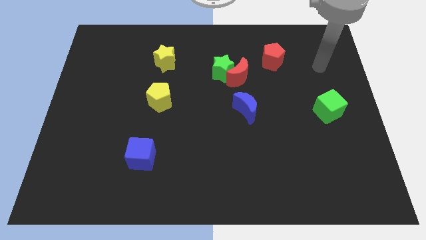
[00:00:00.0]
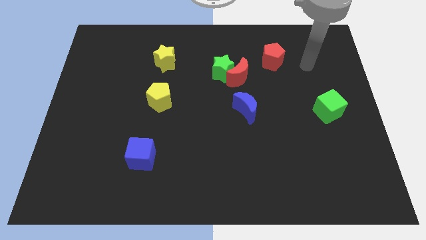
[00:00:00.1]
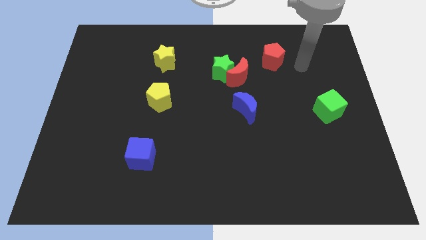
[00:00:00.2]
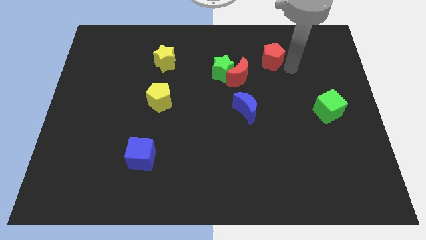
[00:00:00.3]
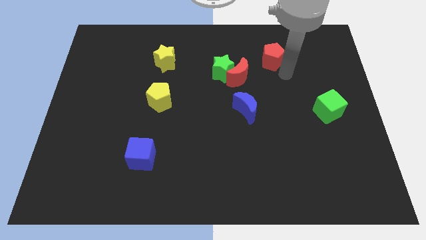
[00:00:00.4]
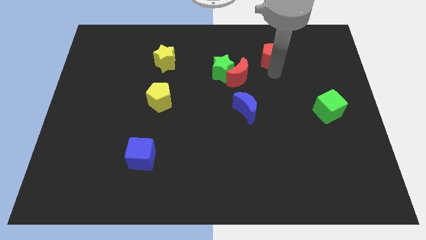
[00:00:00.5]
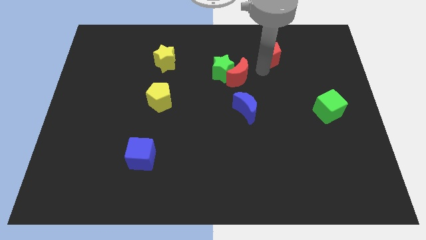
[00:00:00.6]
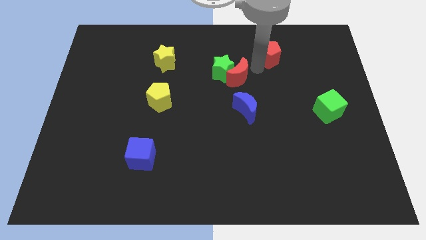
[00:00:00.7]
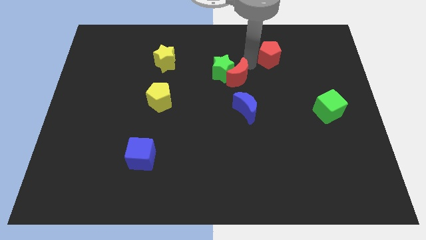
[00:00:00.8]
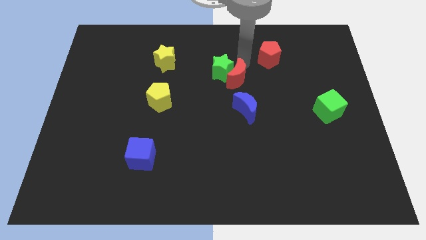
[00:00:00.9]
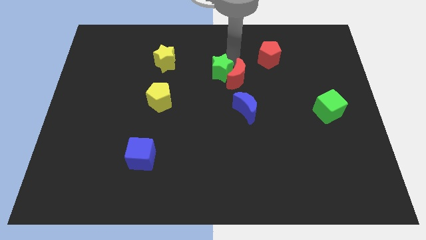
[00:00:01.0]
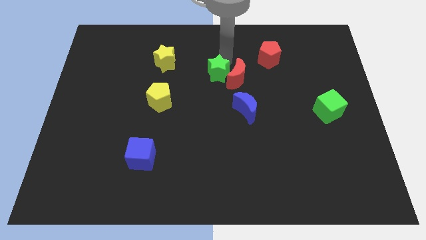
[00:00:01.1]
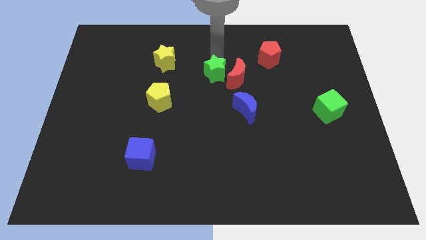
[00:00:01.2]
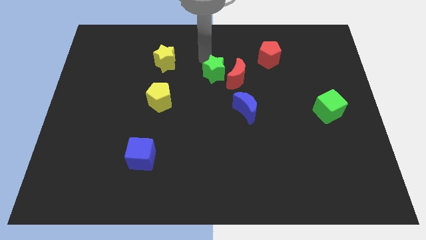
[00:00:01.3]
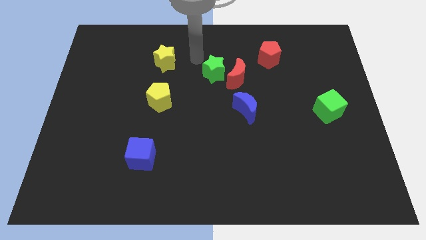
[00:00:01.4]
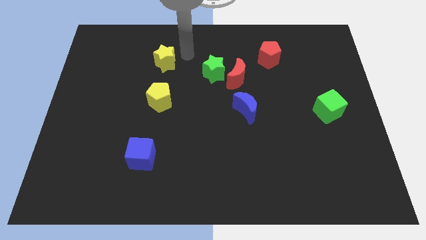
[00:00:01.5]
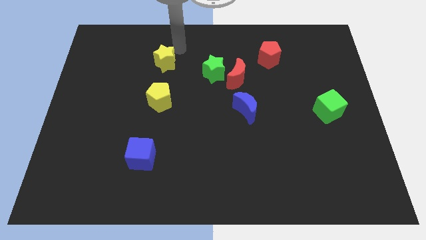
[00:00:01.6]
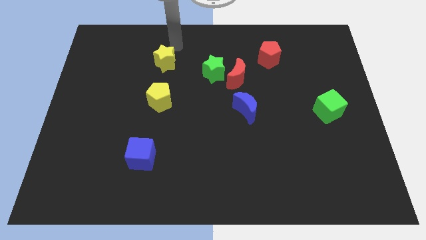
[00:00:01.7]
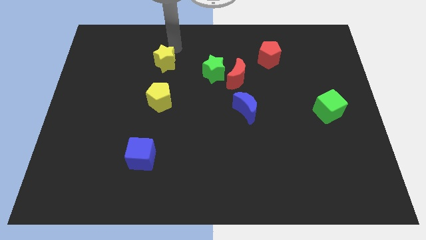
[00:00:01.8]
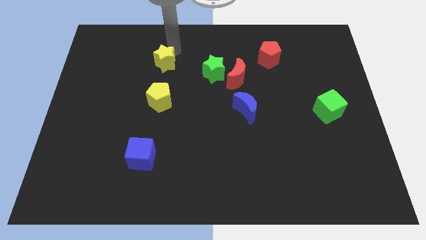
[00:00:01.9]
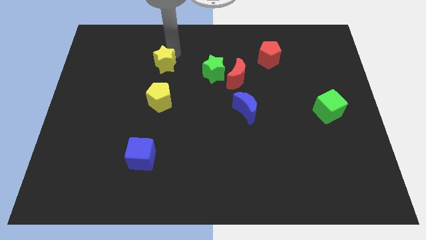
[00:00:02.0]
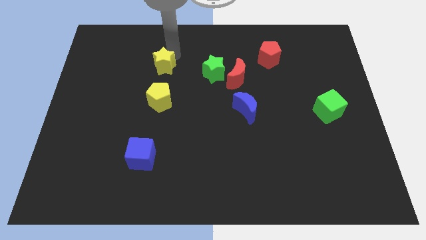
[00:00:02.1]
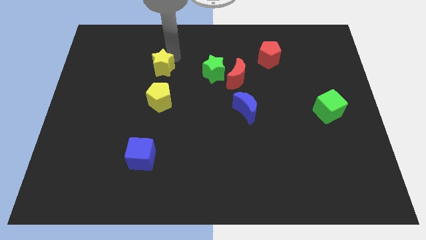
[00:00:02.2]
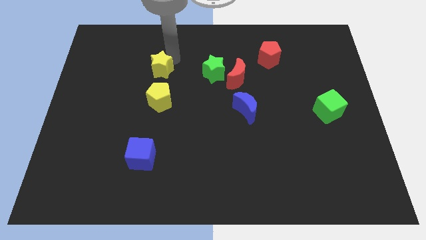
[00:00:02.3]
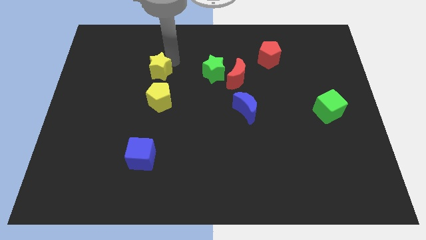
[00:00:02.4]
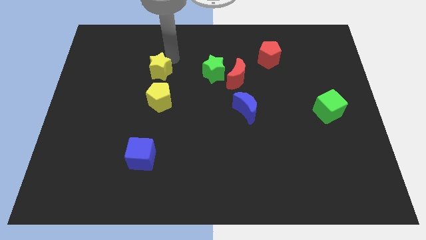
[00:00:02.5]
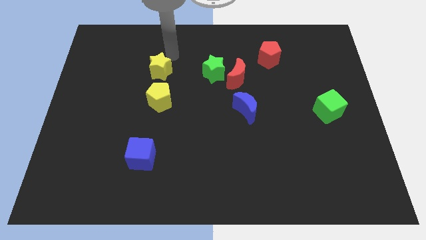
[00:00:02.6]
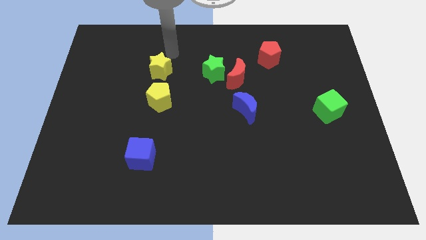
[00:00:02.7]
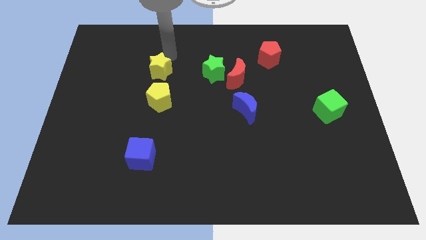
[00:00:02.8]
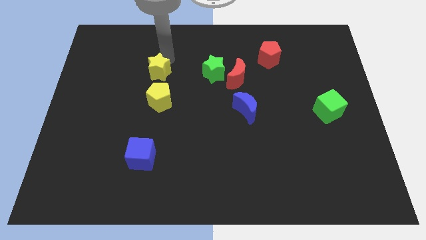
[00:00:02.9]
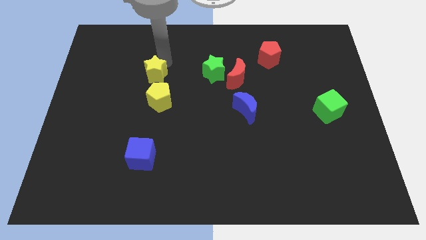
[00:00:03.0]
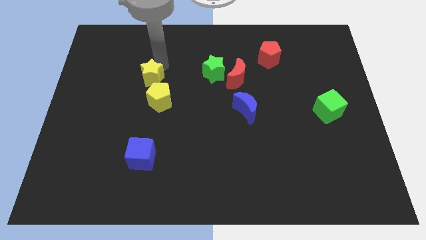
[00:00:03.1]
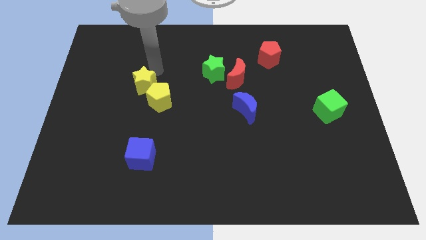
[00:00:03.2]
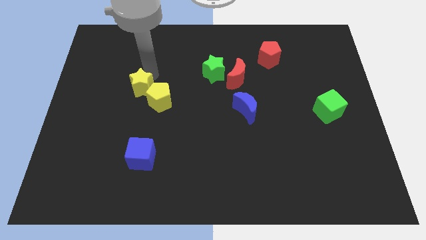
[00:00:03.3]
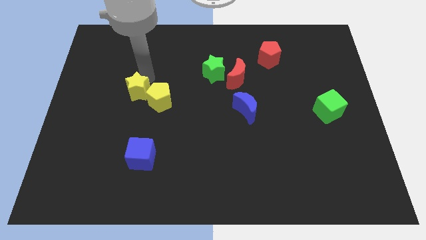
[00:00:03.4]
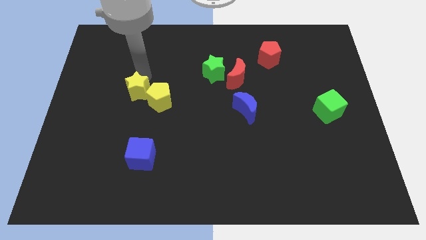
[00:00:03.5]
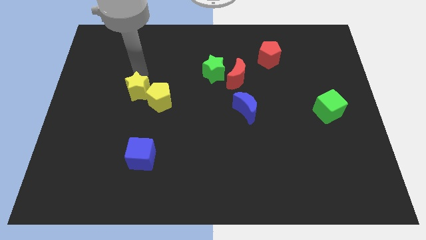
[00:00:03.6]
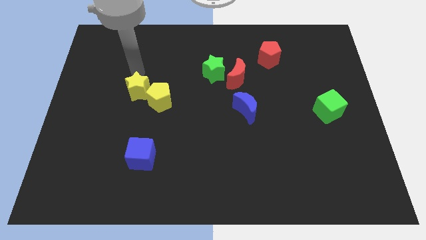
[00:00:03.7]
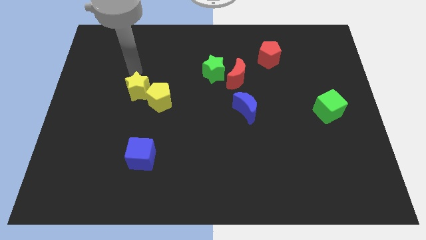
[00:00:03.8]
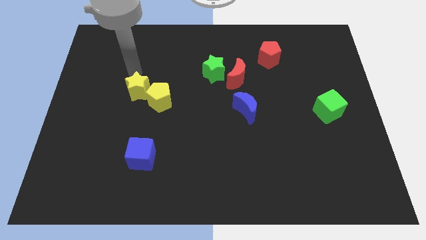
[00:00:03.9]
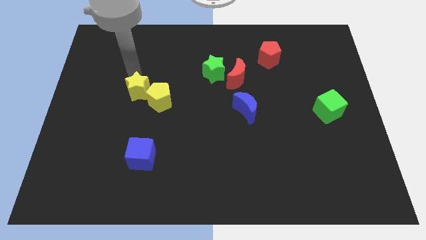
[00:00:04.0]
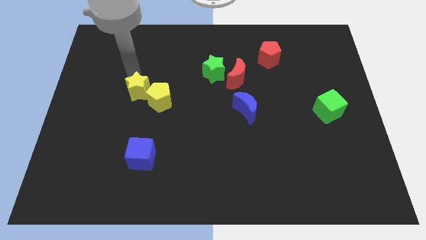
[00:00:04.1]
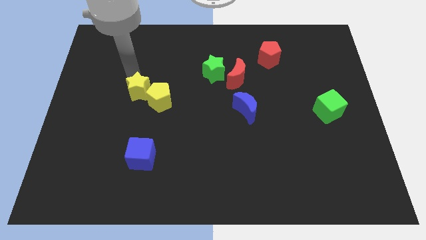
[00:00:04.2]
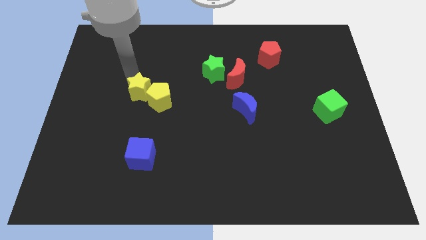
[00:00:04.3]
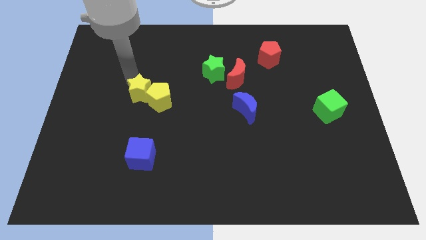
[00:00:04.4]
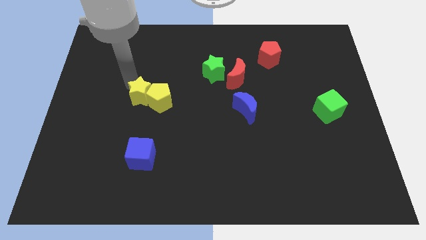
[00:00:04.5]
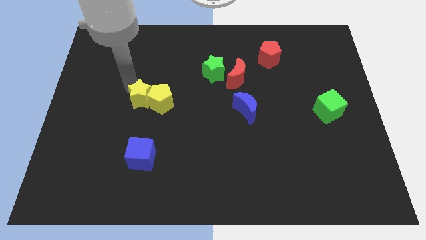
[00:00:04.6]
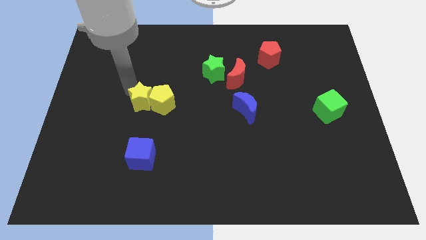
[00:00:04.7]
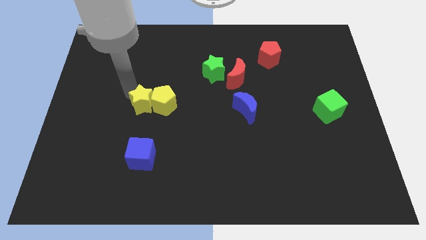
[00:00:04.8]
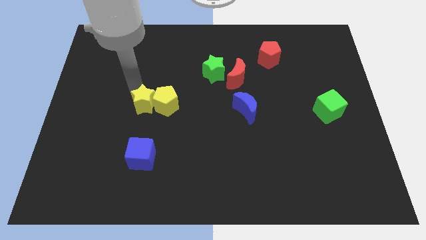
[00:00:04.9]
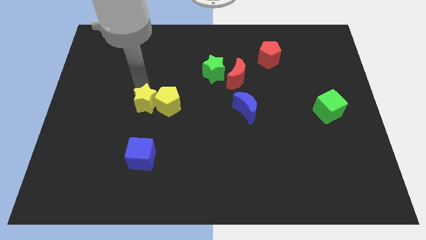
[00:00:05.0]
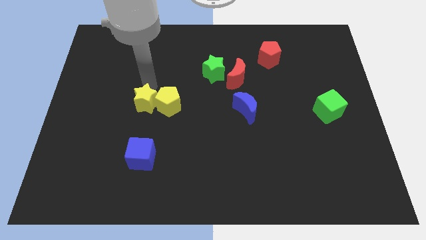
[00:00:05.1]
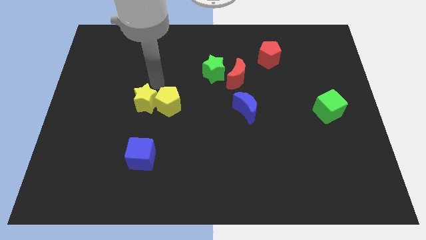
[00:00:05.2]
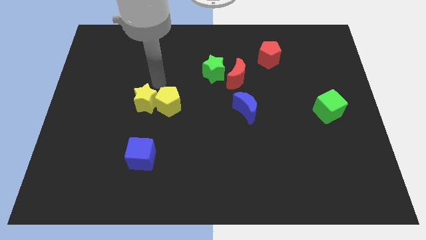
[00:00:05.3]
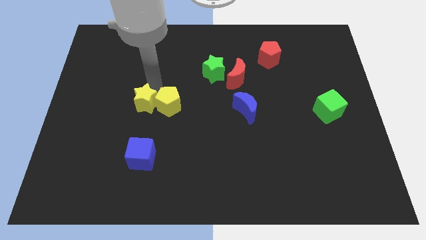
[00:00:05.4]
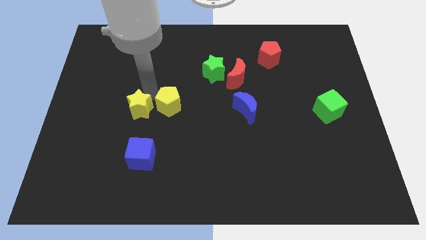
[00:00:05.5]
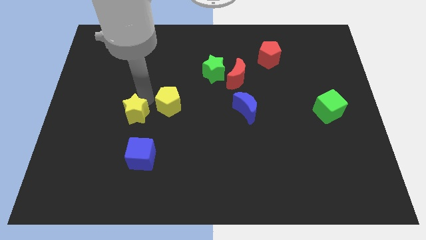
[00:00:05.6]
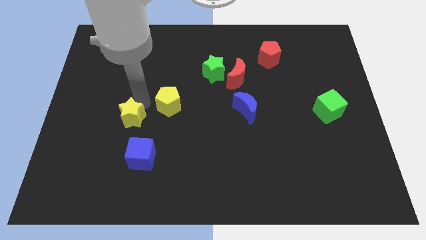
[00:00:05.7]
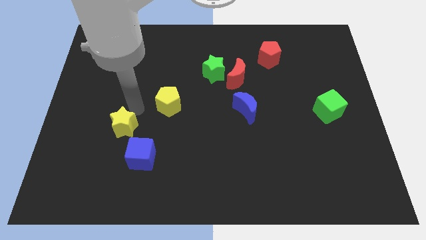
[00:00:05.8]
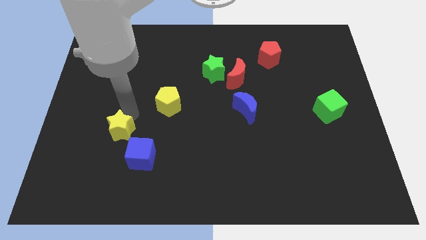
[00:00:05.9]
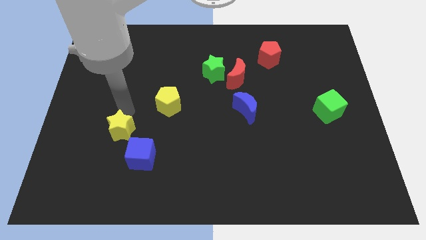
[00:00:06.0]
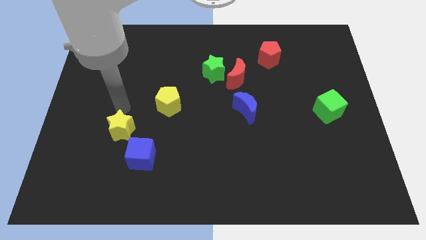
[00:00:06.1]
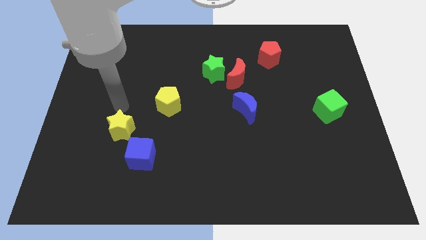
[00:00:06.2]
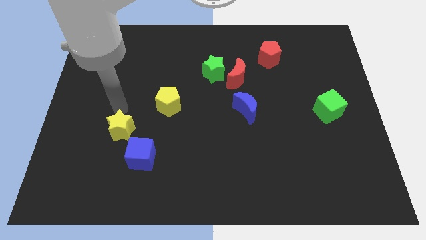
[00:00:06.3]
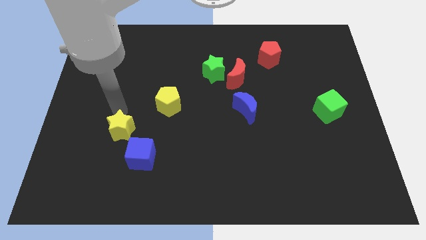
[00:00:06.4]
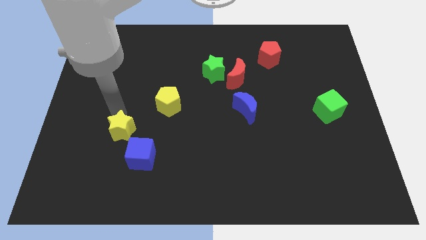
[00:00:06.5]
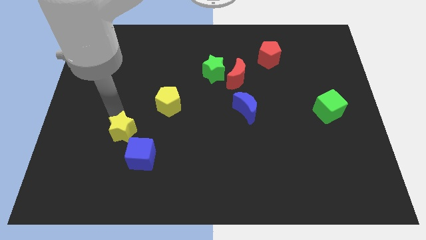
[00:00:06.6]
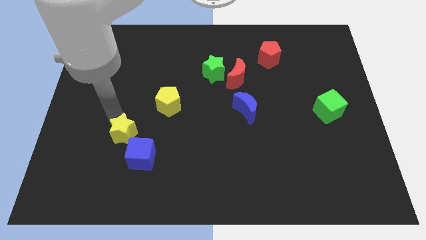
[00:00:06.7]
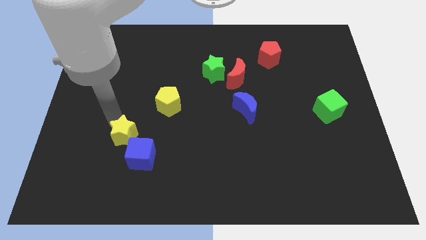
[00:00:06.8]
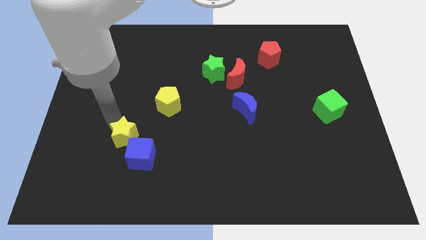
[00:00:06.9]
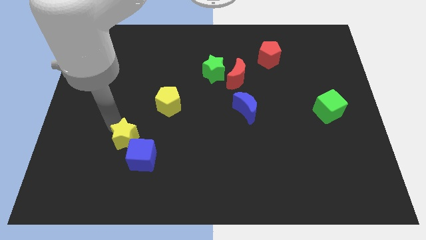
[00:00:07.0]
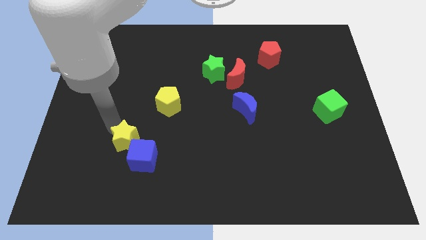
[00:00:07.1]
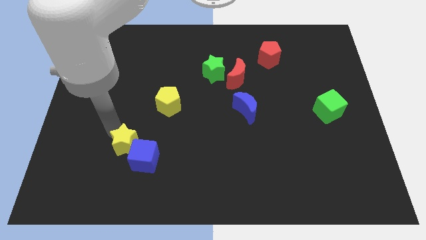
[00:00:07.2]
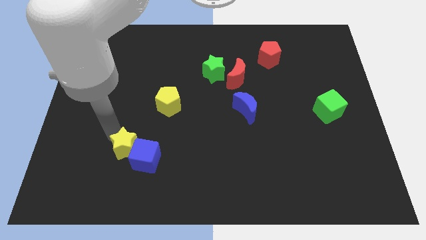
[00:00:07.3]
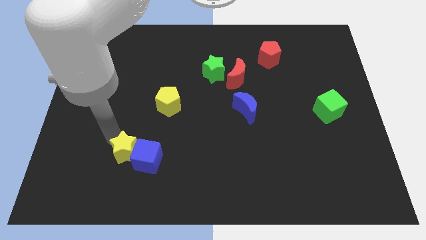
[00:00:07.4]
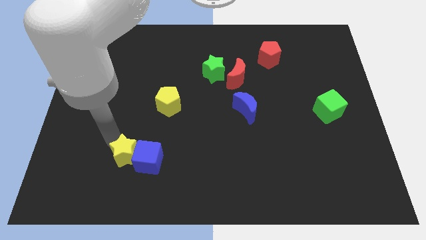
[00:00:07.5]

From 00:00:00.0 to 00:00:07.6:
slide the yellow star diagonally down and to the left of the blue cube
